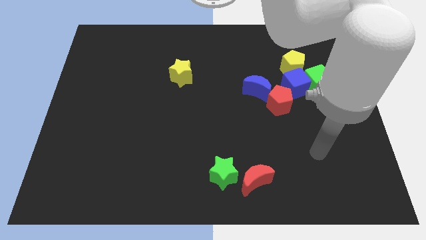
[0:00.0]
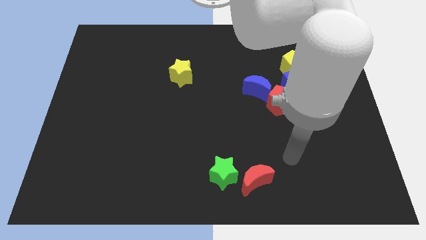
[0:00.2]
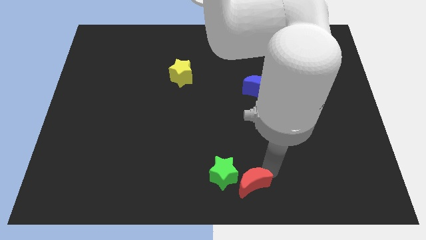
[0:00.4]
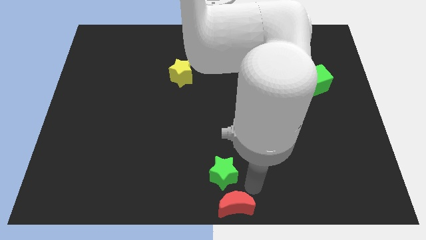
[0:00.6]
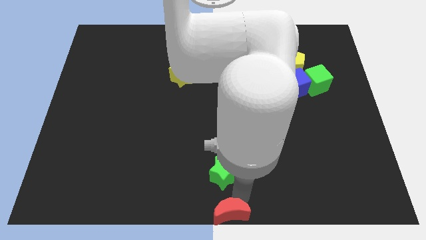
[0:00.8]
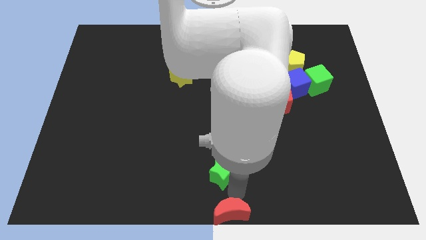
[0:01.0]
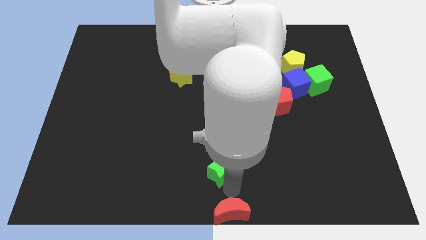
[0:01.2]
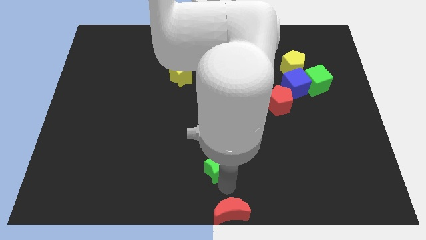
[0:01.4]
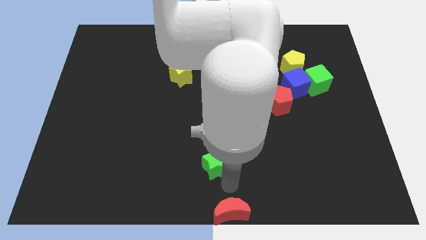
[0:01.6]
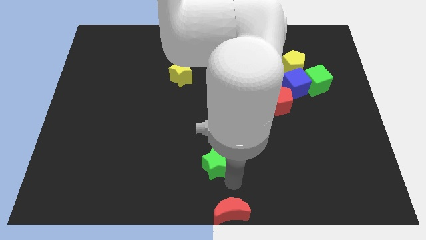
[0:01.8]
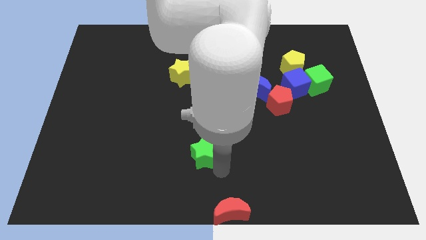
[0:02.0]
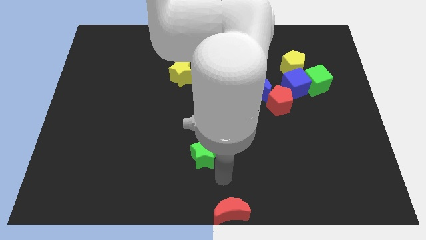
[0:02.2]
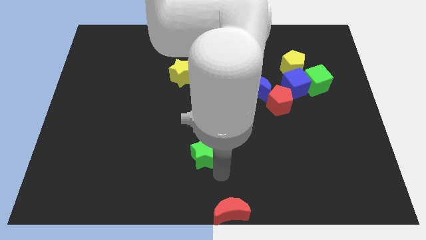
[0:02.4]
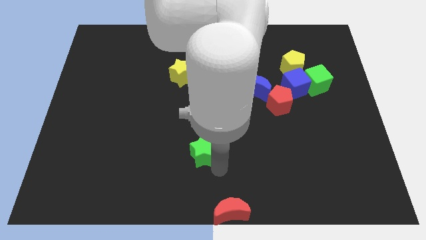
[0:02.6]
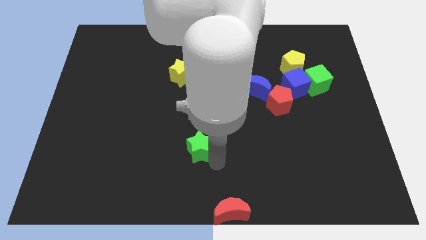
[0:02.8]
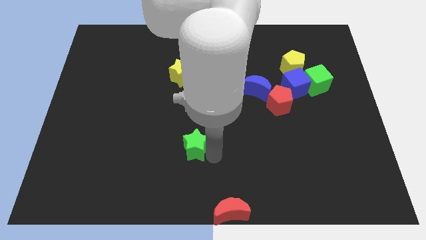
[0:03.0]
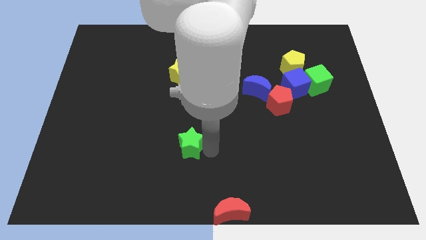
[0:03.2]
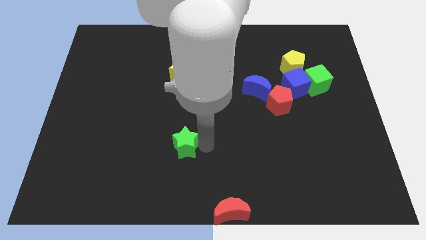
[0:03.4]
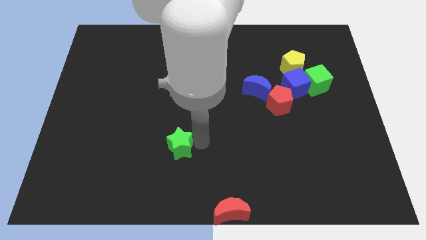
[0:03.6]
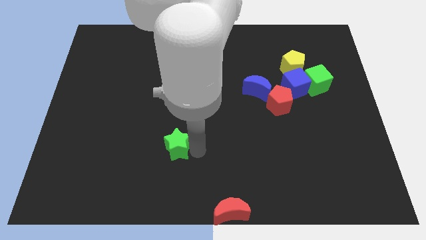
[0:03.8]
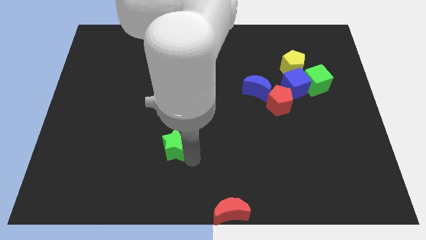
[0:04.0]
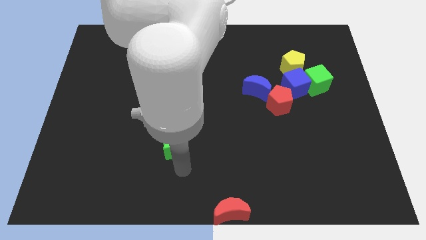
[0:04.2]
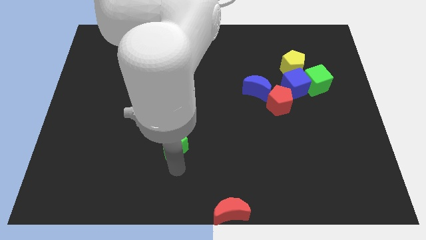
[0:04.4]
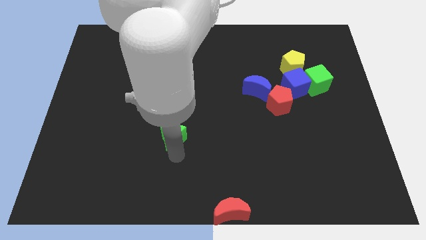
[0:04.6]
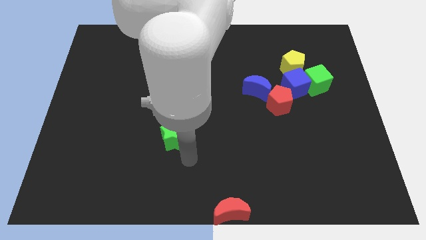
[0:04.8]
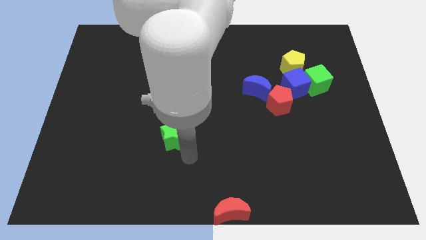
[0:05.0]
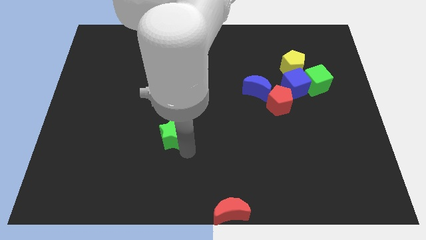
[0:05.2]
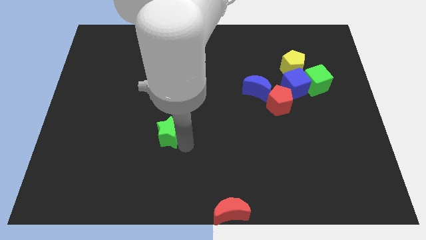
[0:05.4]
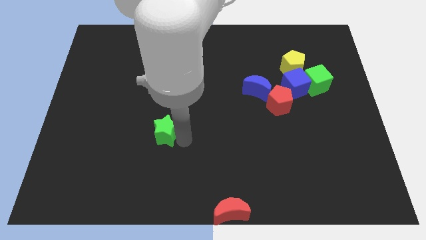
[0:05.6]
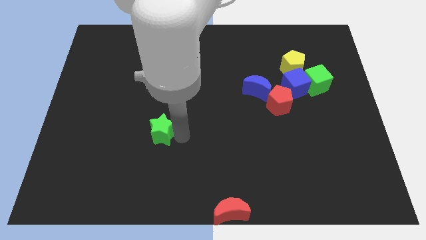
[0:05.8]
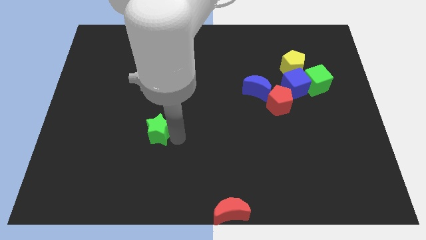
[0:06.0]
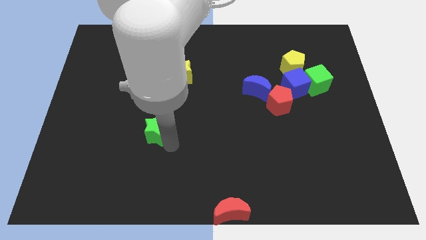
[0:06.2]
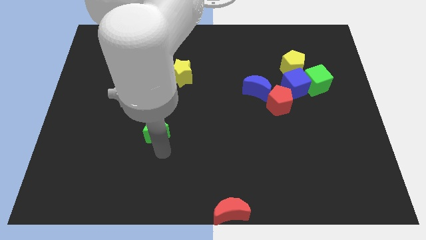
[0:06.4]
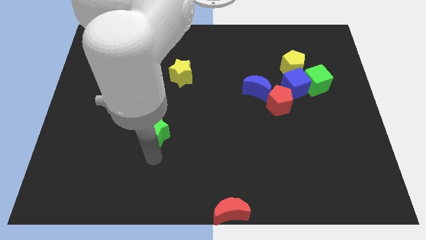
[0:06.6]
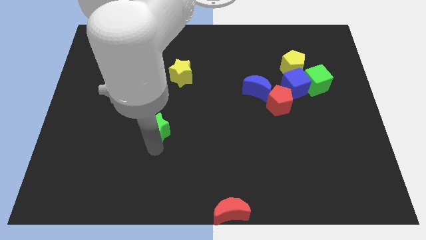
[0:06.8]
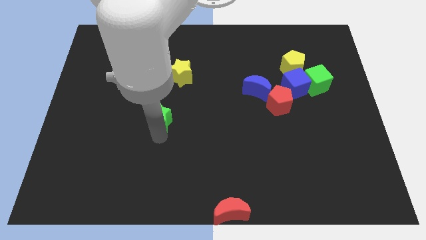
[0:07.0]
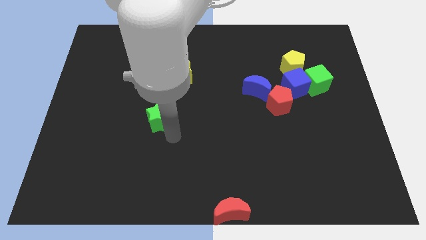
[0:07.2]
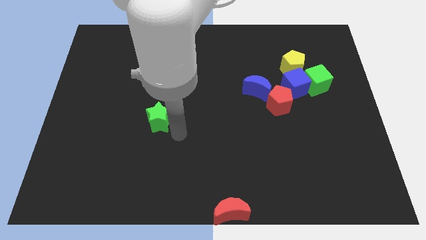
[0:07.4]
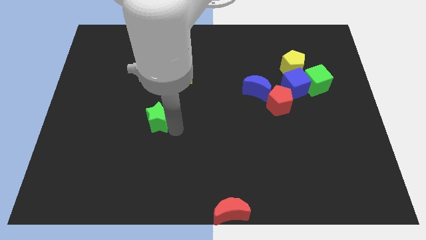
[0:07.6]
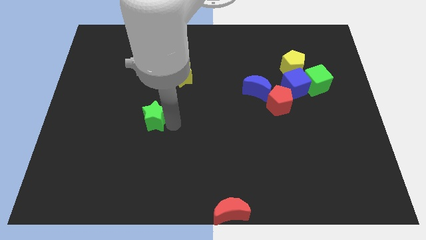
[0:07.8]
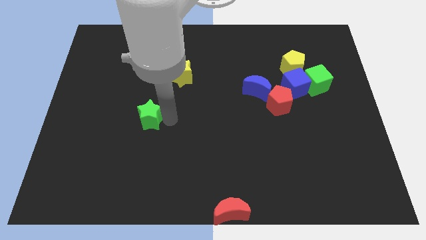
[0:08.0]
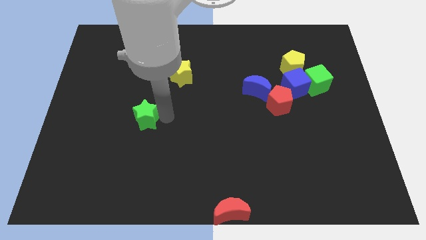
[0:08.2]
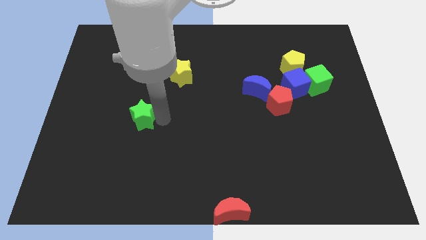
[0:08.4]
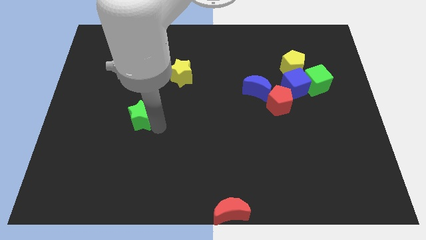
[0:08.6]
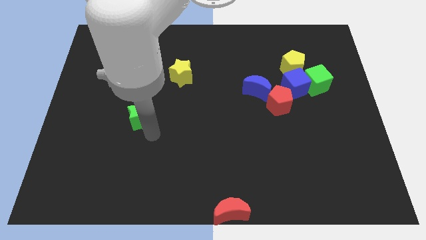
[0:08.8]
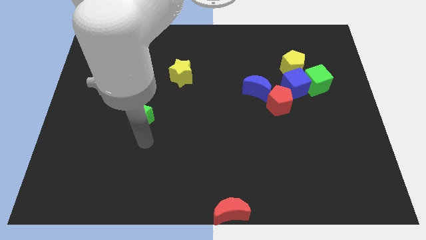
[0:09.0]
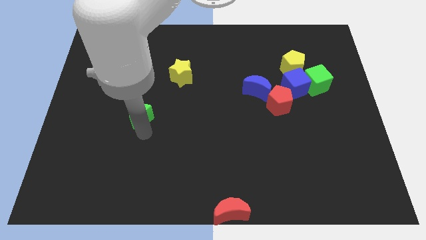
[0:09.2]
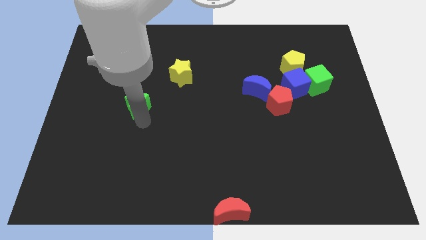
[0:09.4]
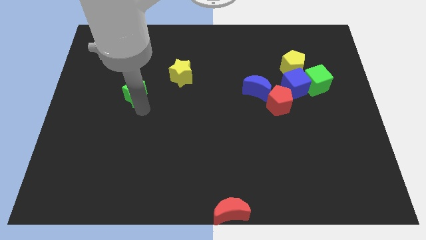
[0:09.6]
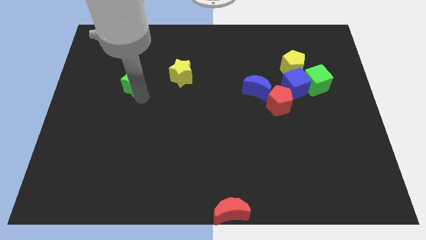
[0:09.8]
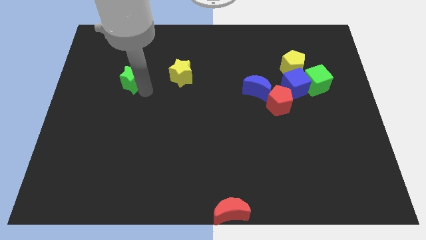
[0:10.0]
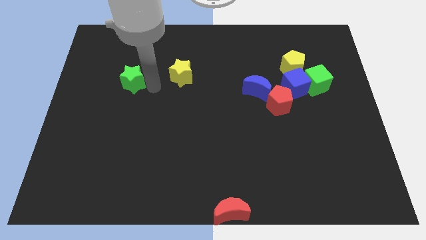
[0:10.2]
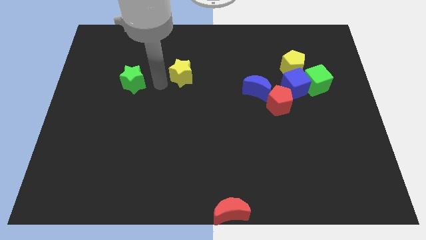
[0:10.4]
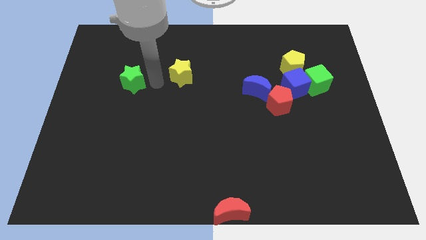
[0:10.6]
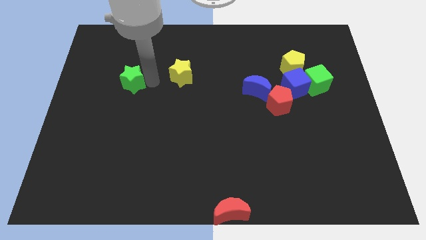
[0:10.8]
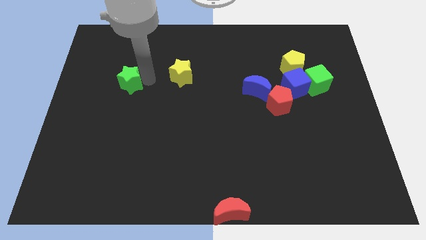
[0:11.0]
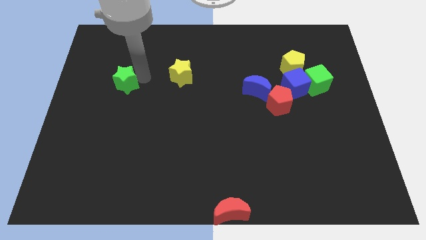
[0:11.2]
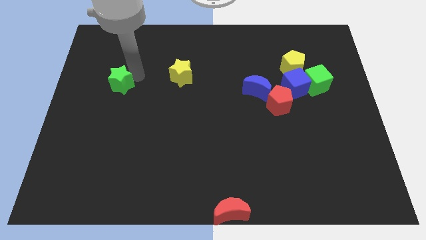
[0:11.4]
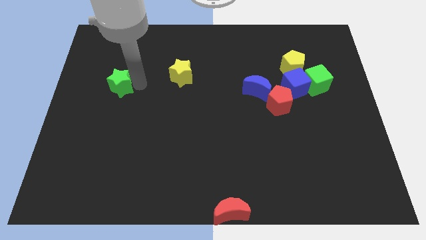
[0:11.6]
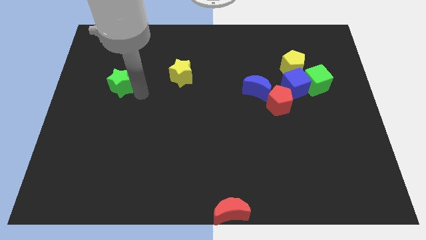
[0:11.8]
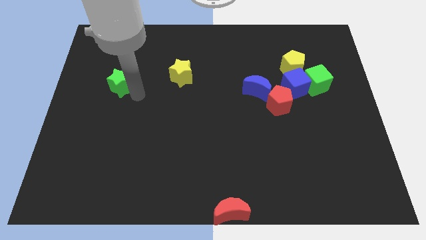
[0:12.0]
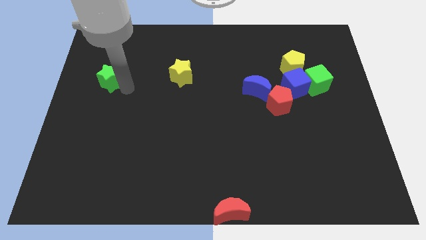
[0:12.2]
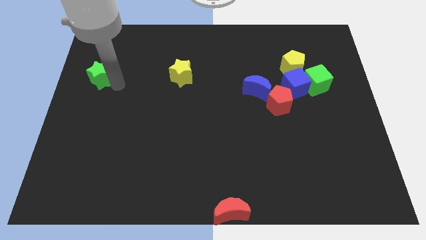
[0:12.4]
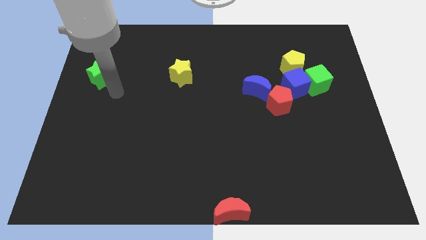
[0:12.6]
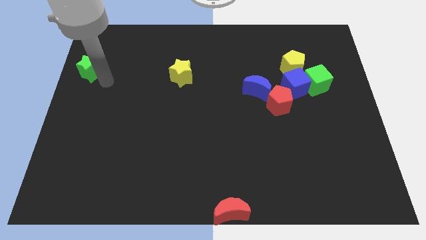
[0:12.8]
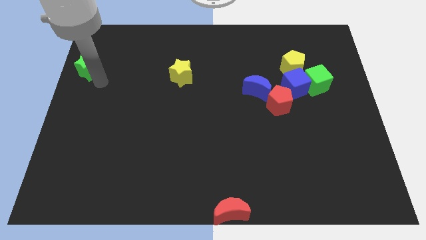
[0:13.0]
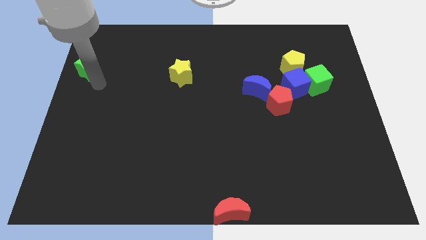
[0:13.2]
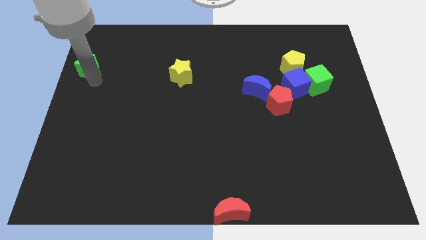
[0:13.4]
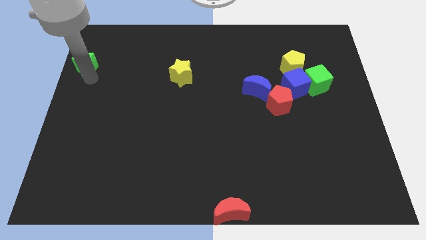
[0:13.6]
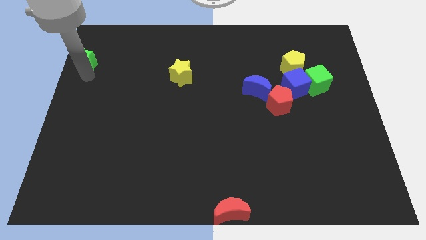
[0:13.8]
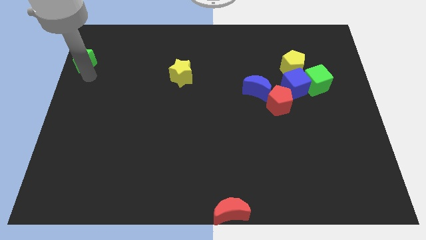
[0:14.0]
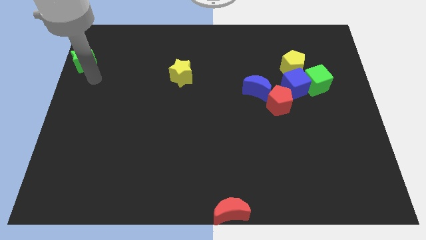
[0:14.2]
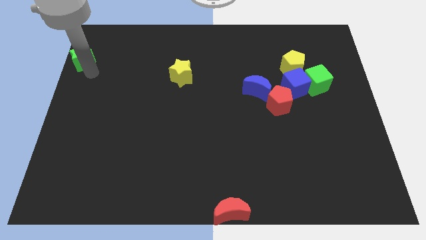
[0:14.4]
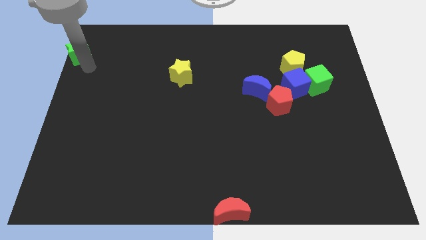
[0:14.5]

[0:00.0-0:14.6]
move the green star to the upper left corner
